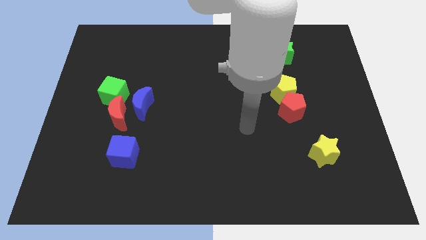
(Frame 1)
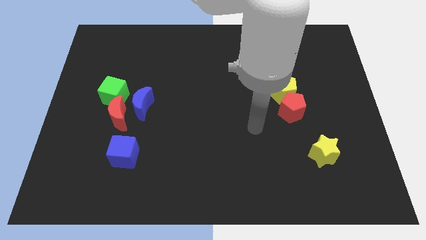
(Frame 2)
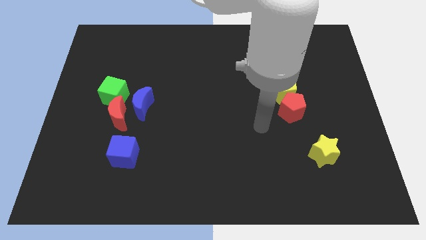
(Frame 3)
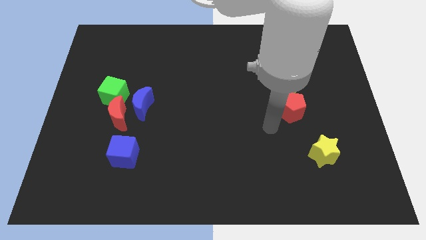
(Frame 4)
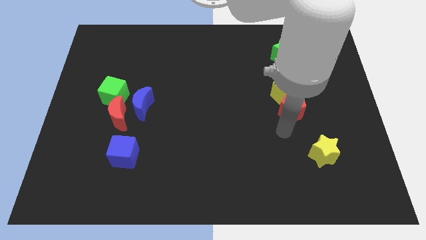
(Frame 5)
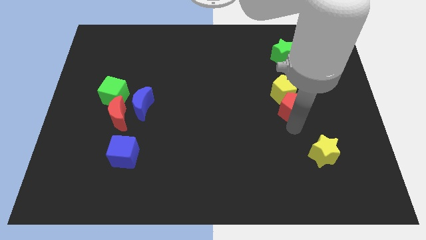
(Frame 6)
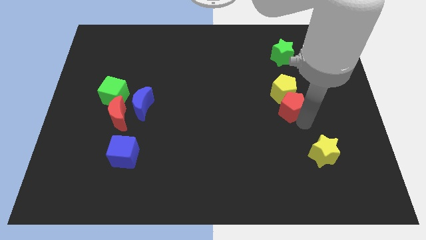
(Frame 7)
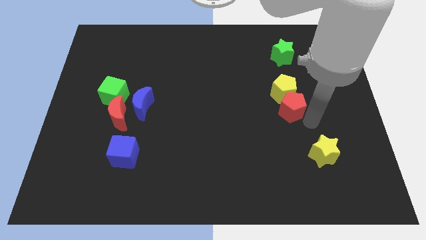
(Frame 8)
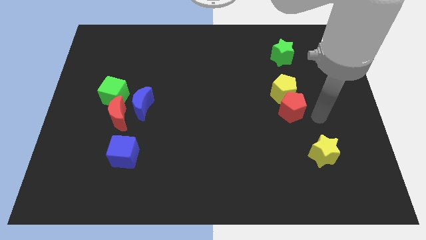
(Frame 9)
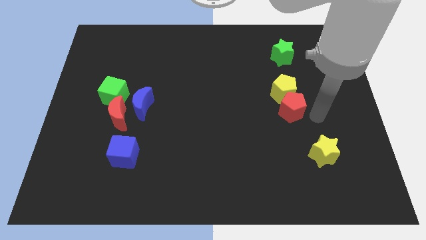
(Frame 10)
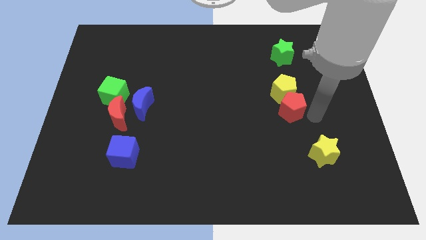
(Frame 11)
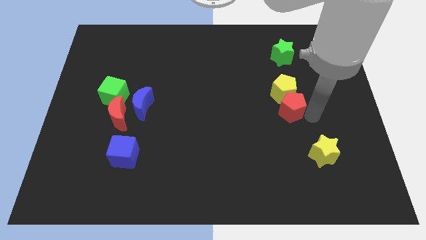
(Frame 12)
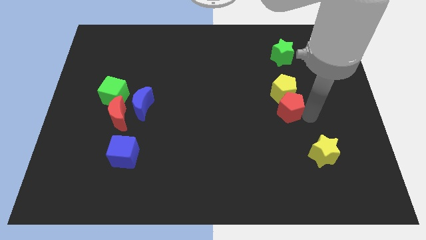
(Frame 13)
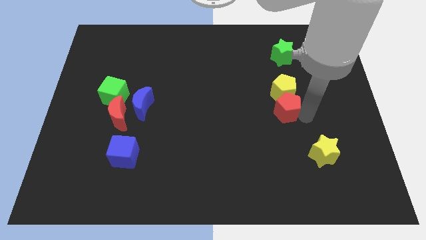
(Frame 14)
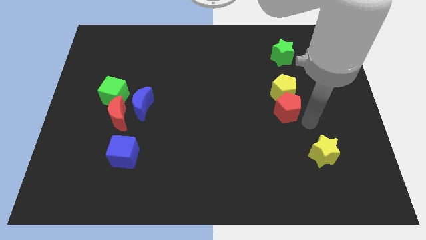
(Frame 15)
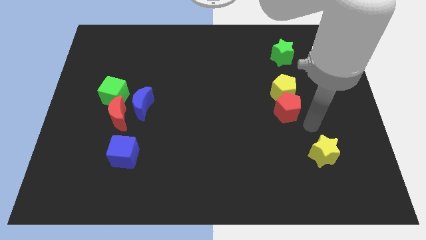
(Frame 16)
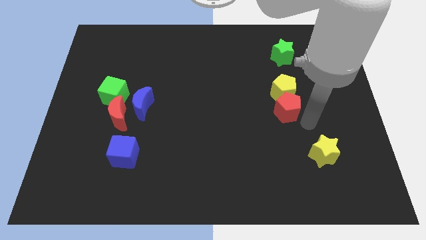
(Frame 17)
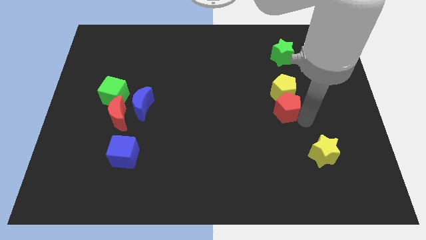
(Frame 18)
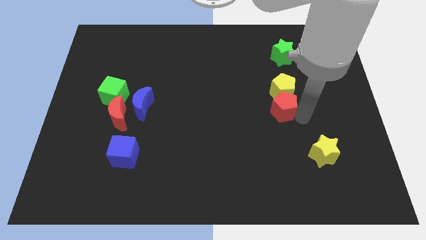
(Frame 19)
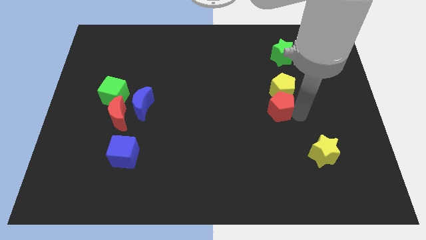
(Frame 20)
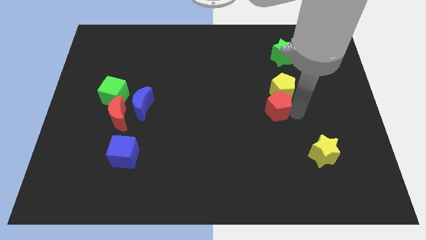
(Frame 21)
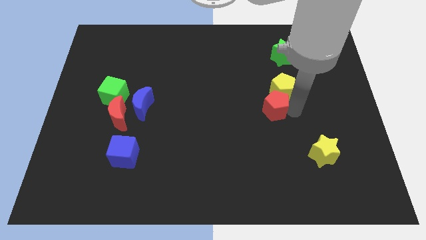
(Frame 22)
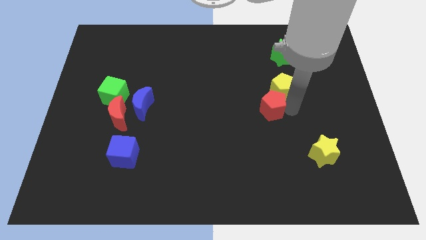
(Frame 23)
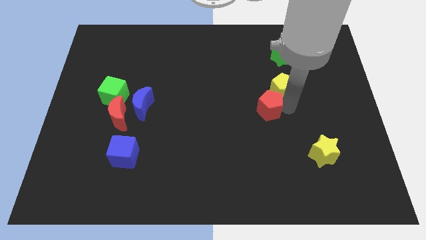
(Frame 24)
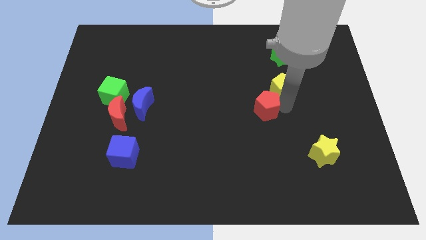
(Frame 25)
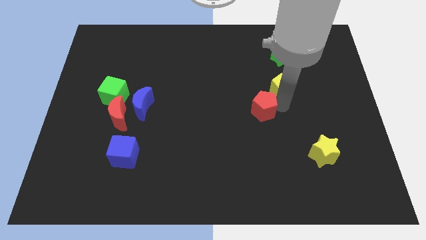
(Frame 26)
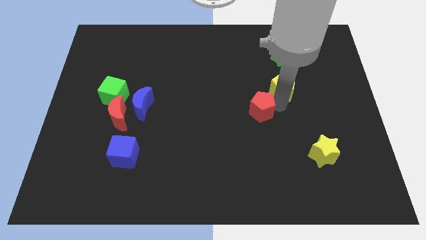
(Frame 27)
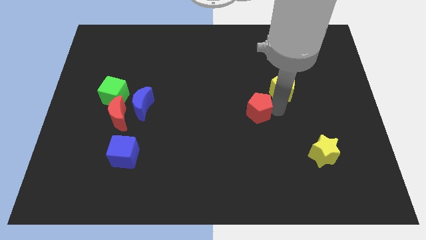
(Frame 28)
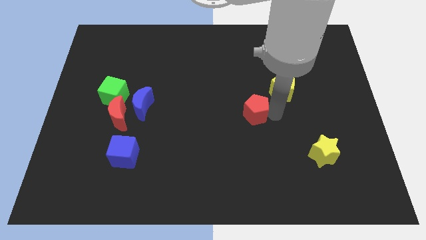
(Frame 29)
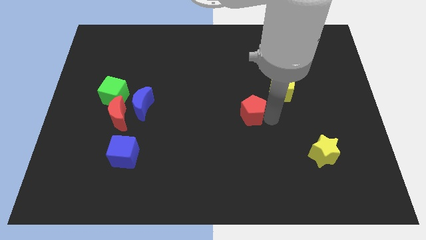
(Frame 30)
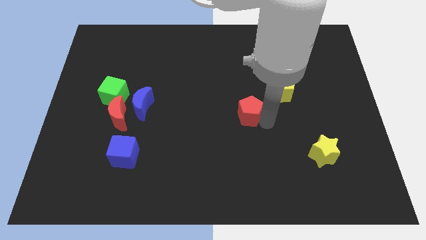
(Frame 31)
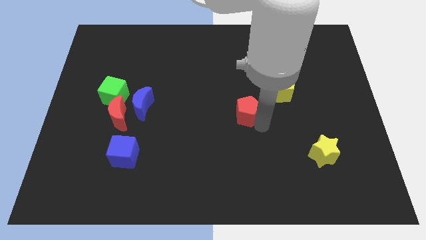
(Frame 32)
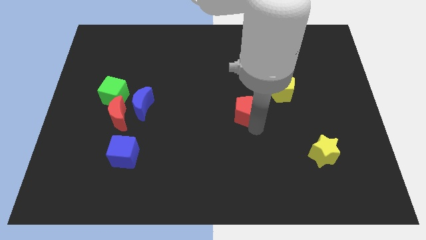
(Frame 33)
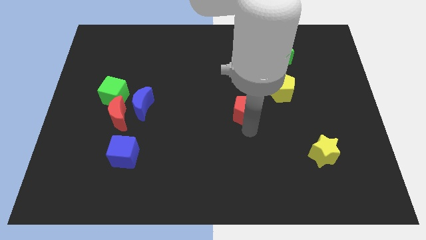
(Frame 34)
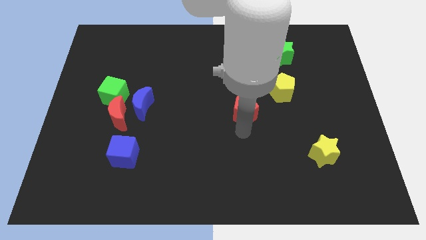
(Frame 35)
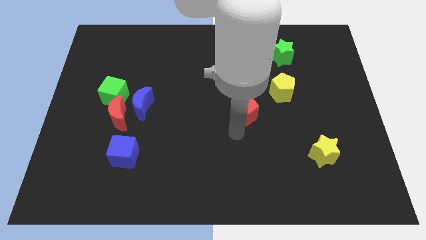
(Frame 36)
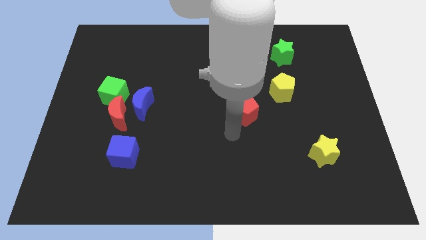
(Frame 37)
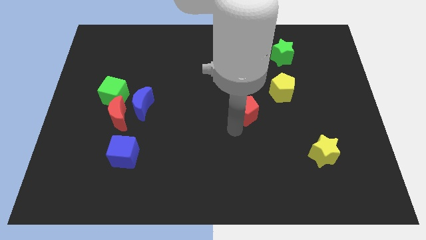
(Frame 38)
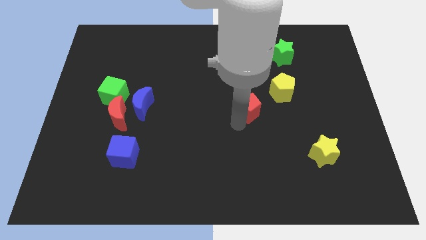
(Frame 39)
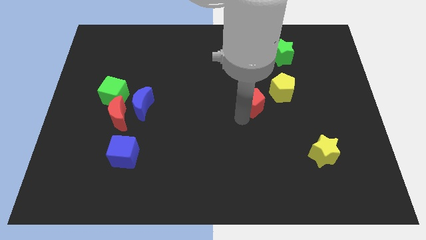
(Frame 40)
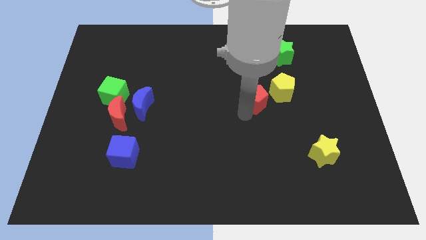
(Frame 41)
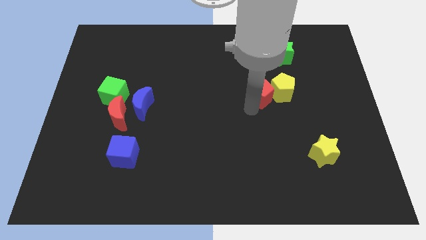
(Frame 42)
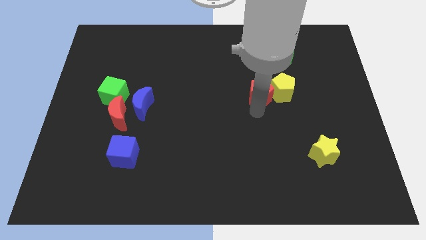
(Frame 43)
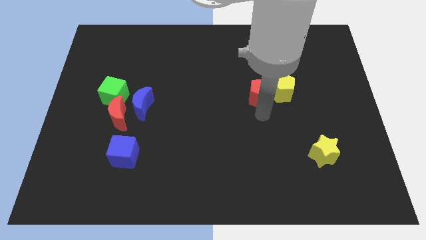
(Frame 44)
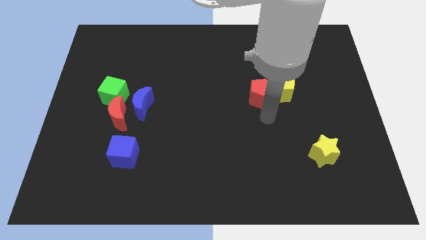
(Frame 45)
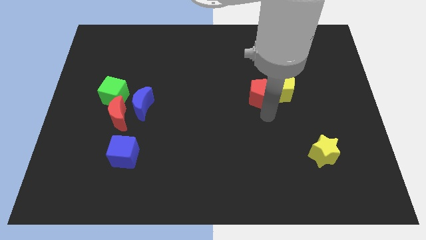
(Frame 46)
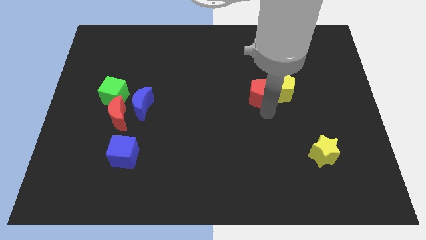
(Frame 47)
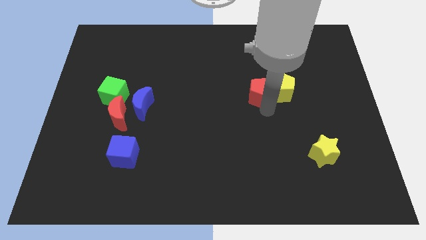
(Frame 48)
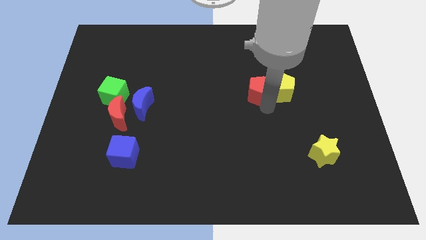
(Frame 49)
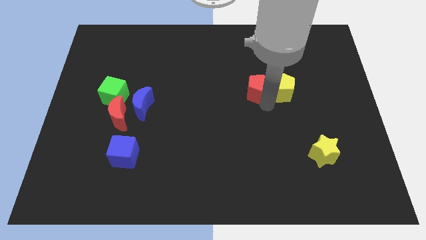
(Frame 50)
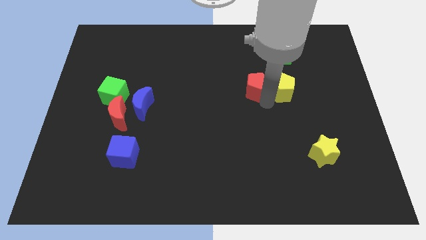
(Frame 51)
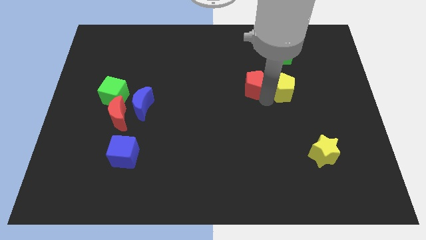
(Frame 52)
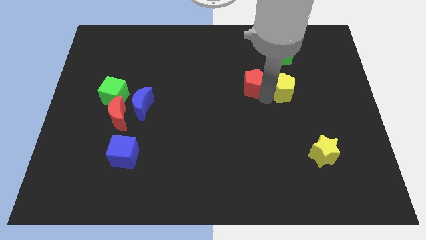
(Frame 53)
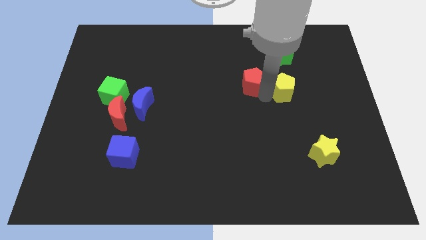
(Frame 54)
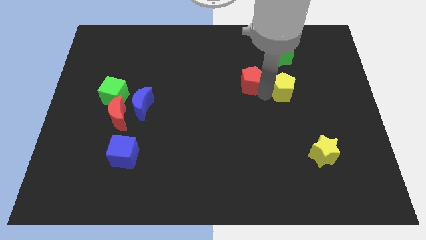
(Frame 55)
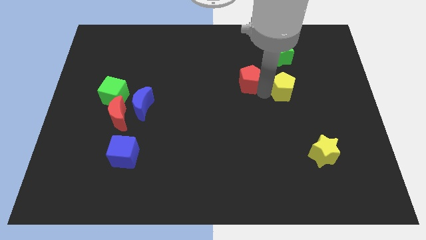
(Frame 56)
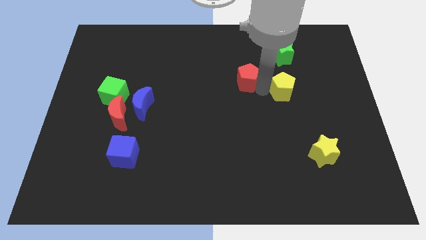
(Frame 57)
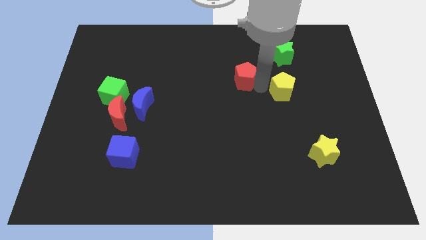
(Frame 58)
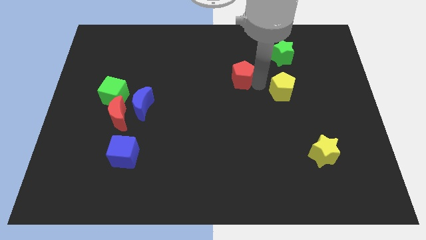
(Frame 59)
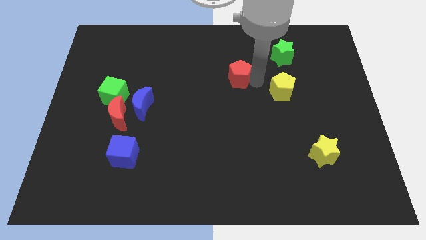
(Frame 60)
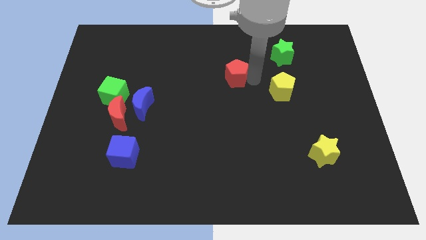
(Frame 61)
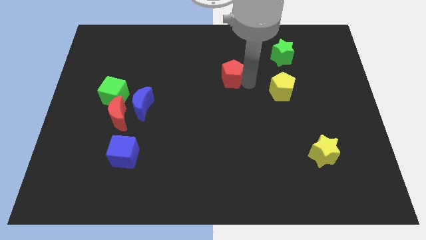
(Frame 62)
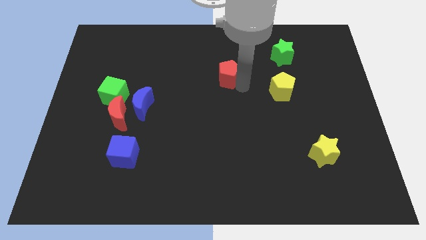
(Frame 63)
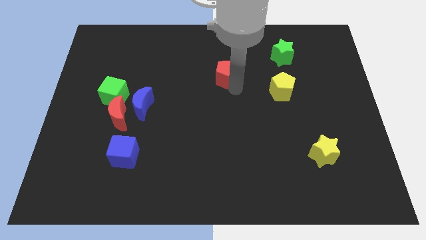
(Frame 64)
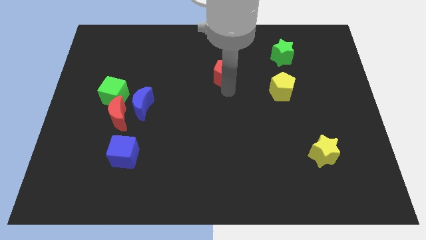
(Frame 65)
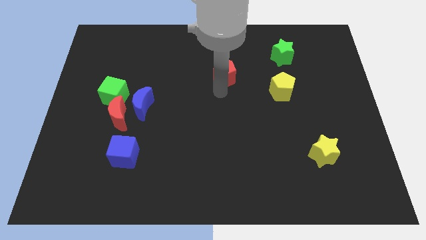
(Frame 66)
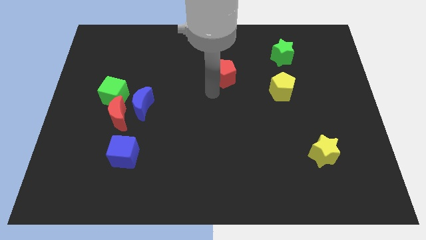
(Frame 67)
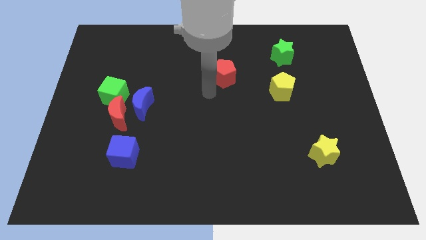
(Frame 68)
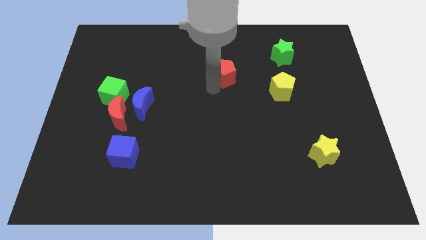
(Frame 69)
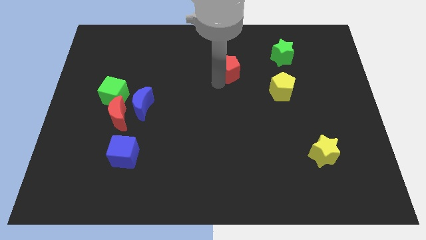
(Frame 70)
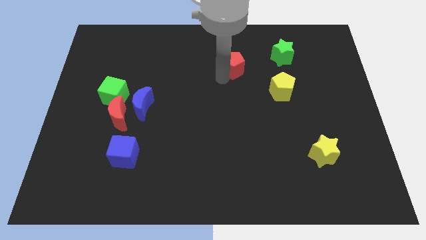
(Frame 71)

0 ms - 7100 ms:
slide the red pentagon just left of the green star
